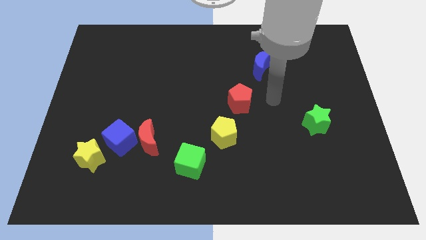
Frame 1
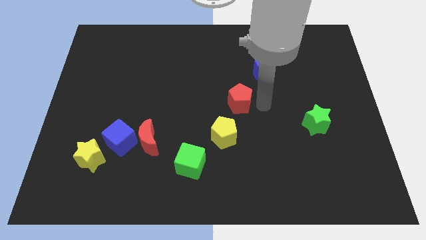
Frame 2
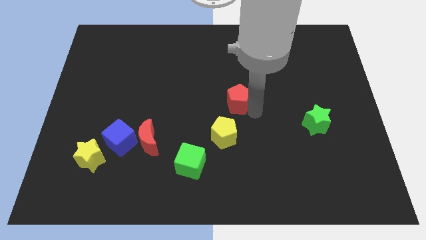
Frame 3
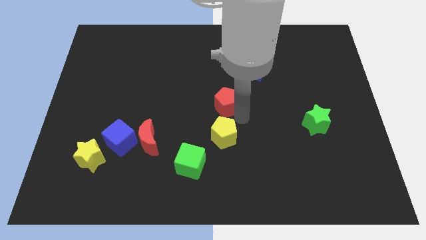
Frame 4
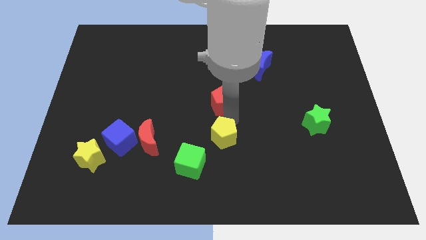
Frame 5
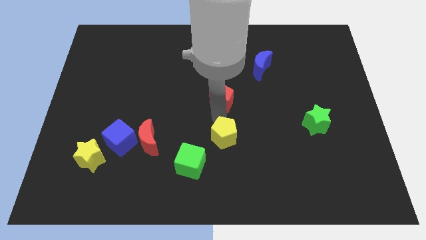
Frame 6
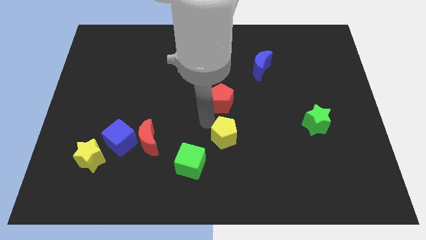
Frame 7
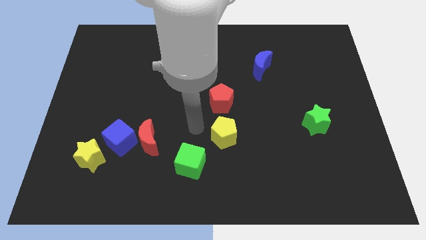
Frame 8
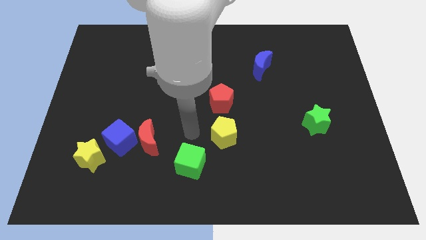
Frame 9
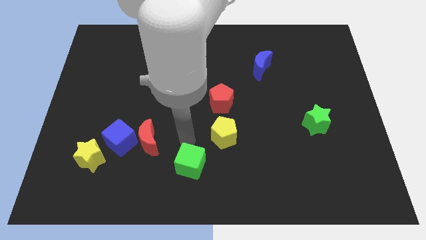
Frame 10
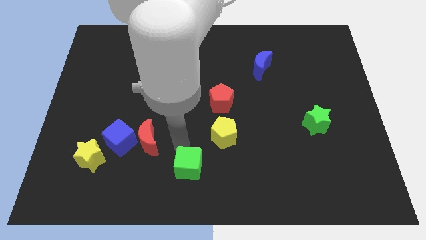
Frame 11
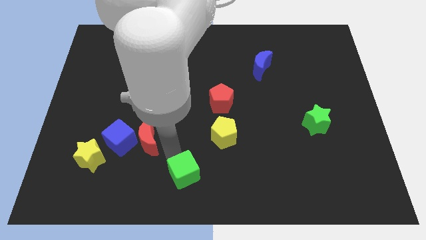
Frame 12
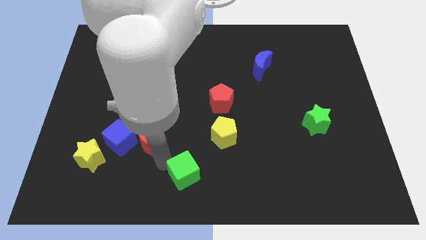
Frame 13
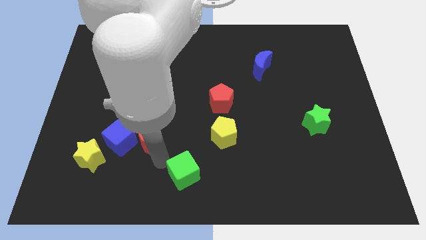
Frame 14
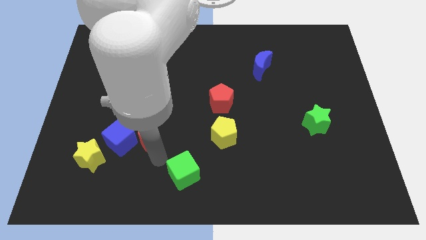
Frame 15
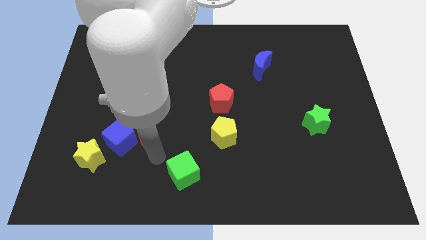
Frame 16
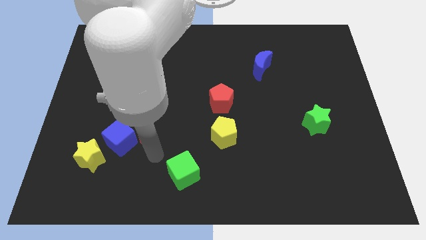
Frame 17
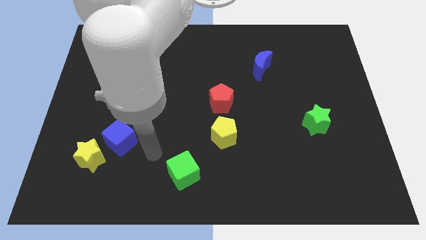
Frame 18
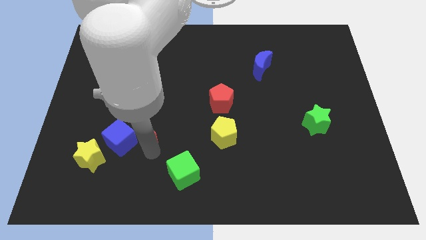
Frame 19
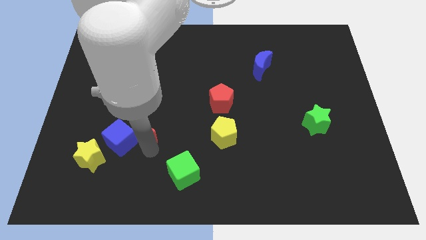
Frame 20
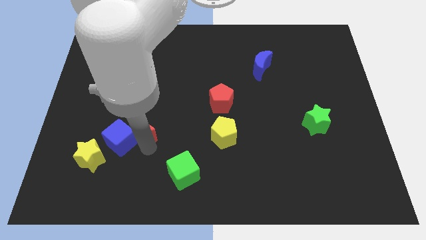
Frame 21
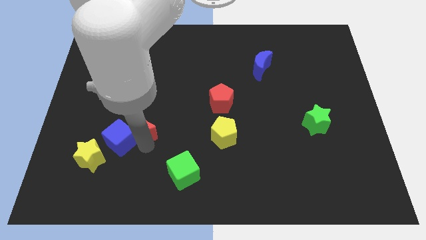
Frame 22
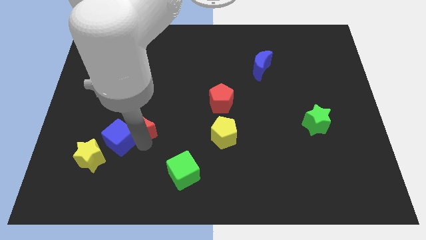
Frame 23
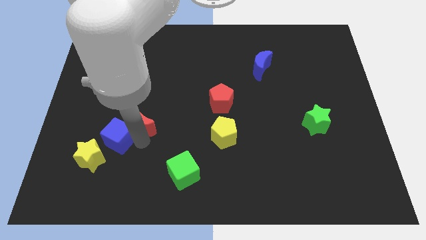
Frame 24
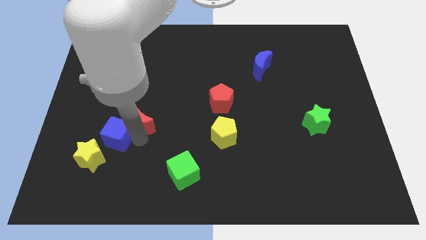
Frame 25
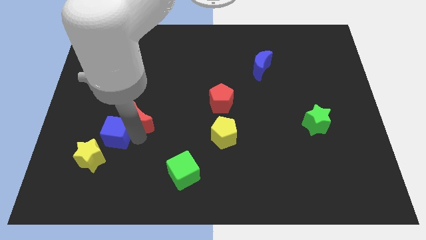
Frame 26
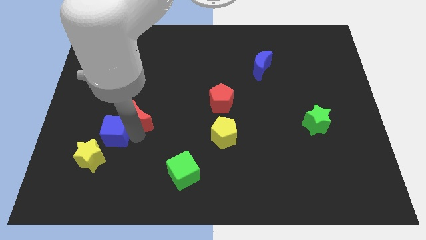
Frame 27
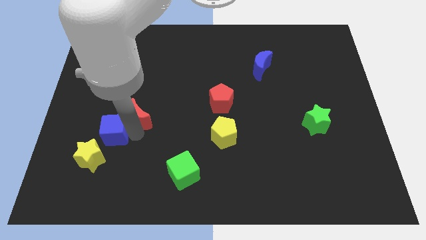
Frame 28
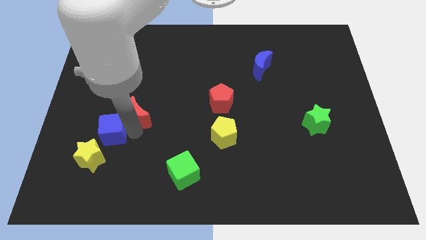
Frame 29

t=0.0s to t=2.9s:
slightly move the red moon up and to the left diagonally

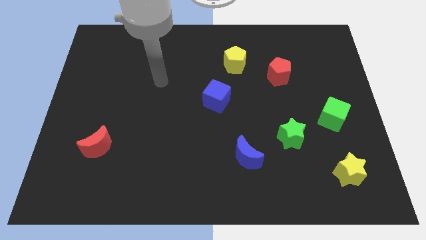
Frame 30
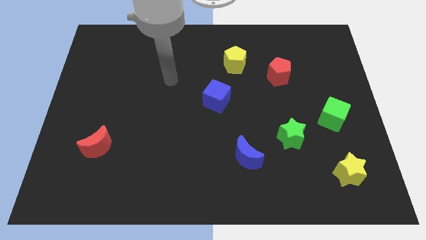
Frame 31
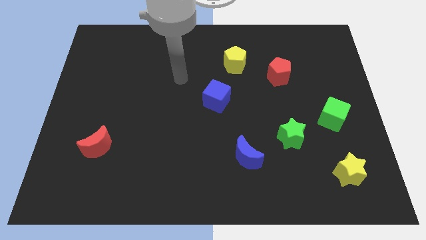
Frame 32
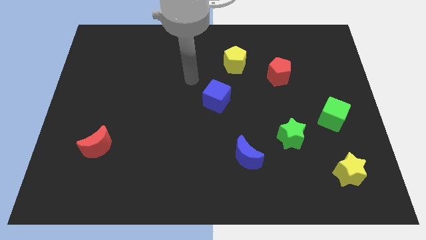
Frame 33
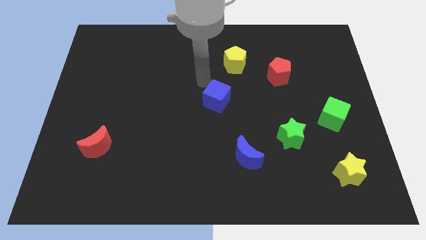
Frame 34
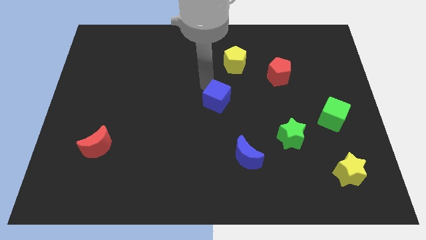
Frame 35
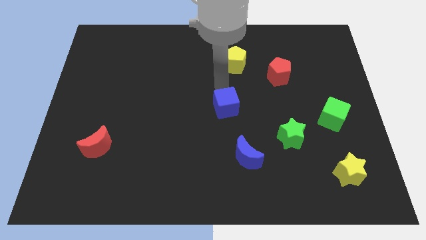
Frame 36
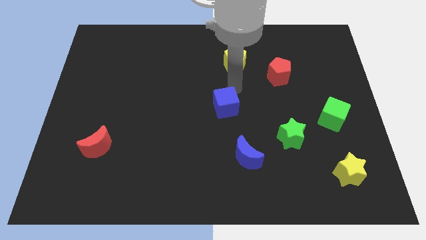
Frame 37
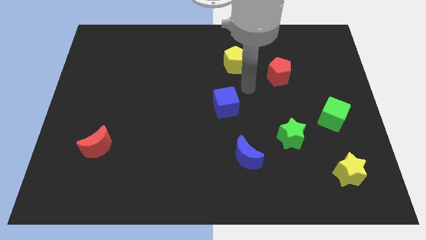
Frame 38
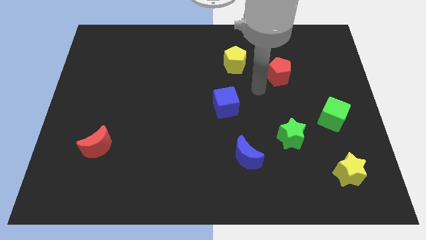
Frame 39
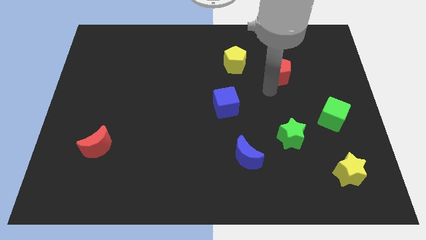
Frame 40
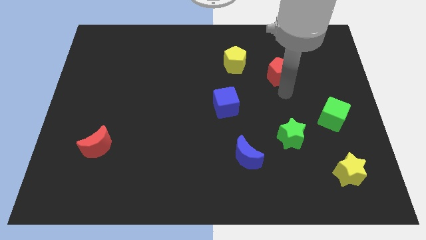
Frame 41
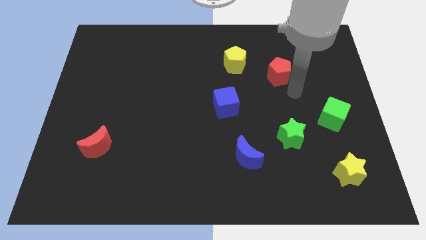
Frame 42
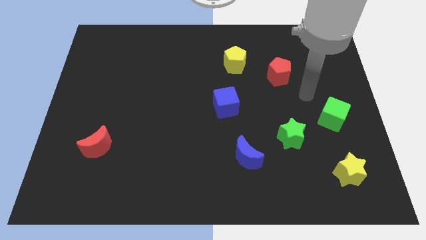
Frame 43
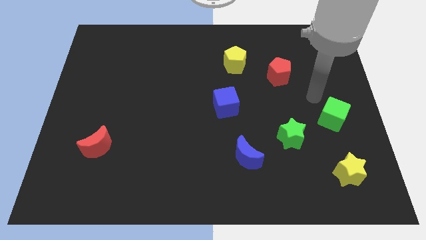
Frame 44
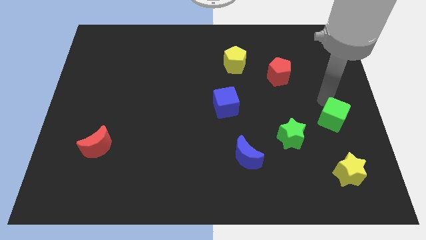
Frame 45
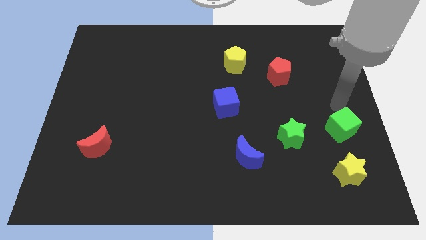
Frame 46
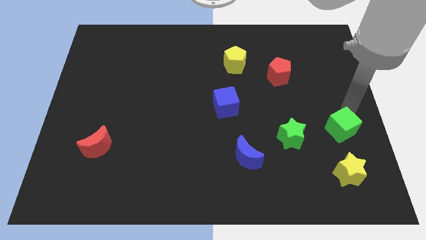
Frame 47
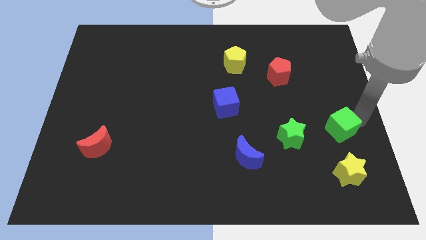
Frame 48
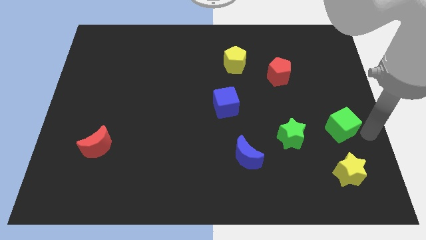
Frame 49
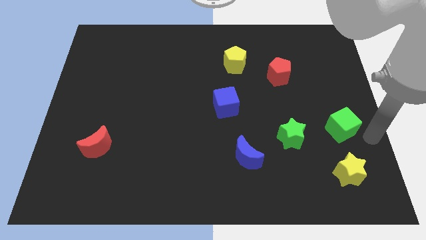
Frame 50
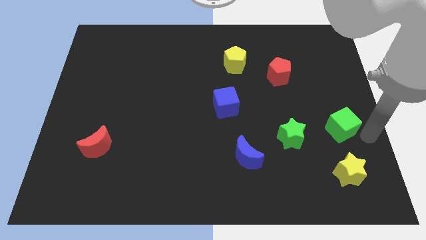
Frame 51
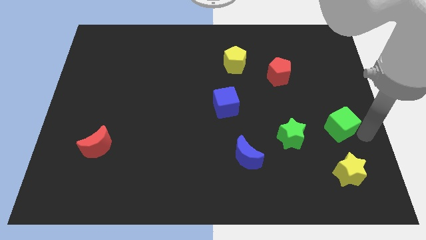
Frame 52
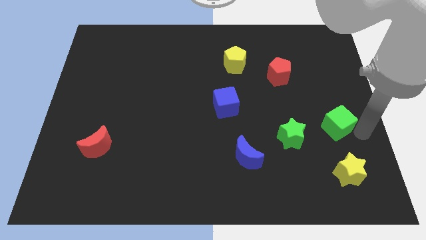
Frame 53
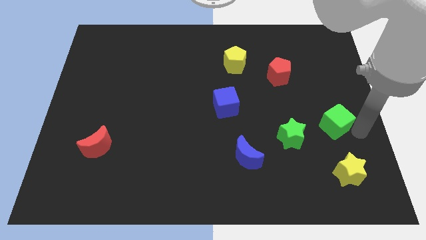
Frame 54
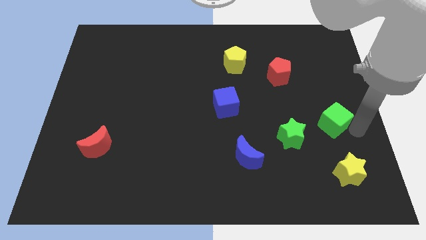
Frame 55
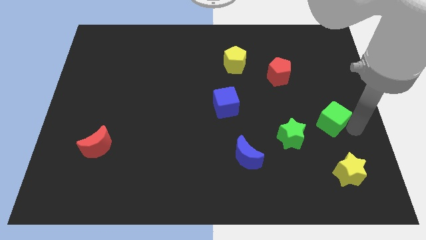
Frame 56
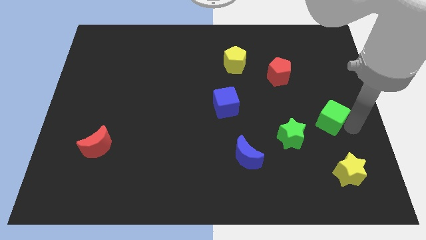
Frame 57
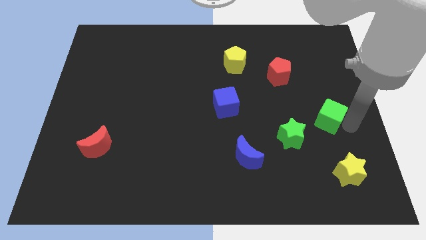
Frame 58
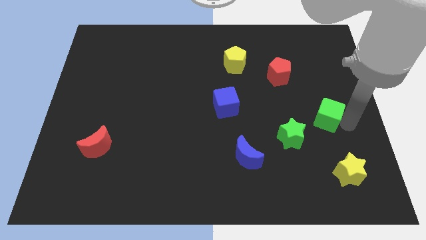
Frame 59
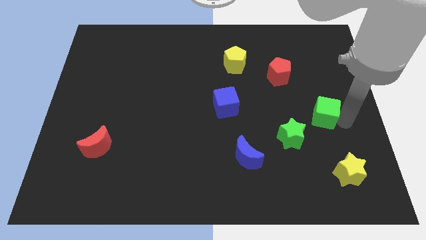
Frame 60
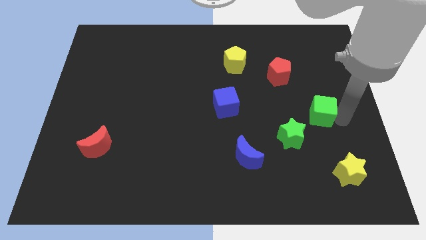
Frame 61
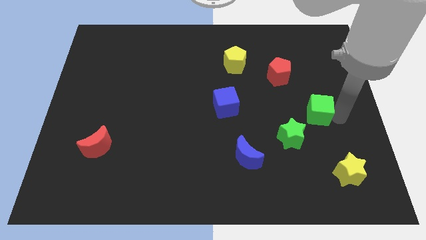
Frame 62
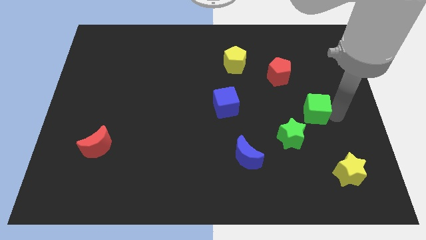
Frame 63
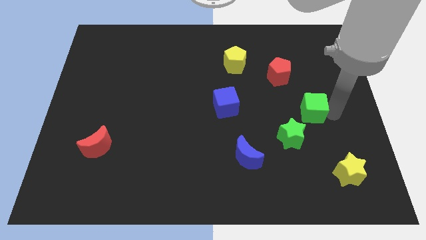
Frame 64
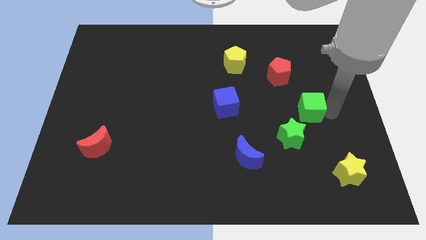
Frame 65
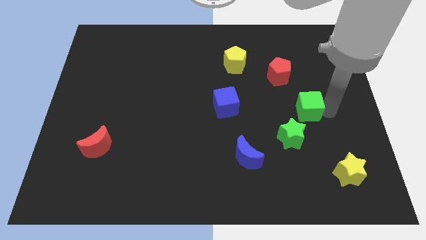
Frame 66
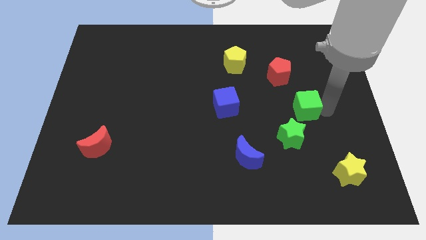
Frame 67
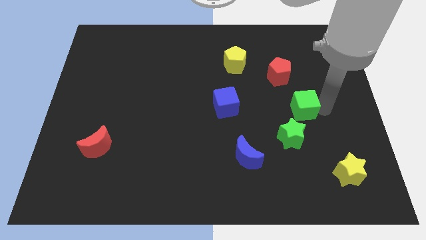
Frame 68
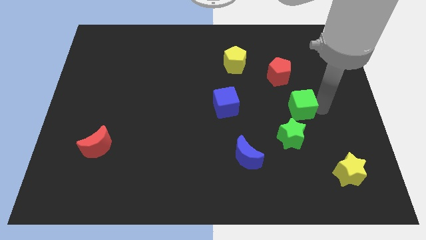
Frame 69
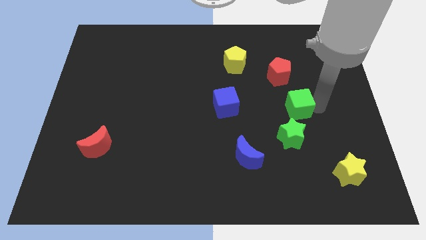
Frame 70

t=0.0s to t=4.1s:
move the green cube left a bit

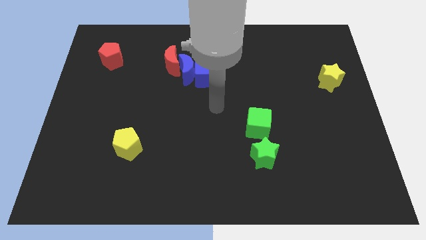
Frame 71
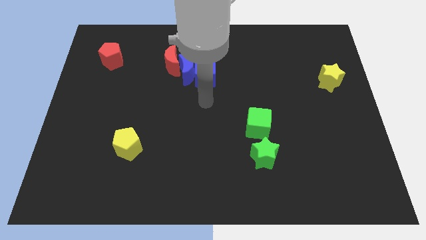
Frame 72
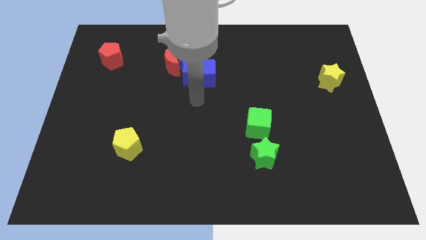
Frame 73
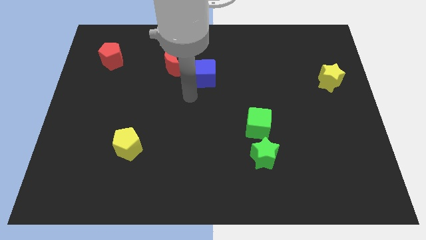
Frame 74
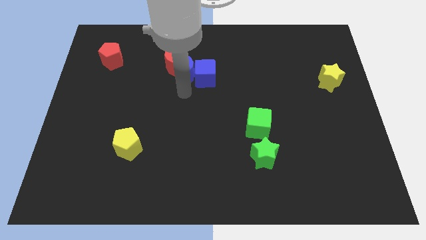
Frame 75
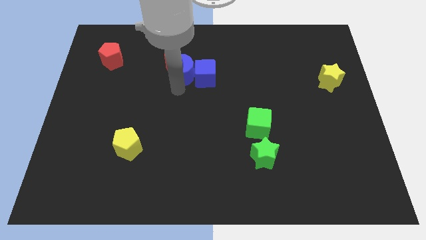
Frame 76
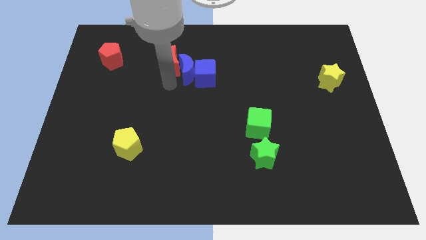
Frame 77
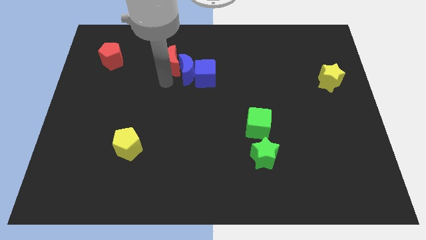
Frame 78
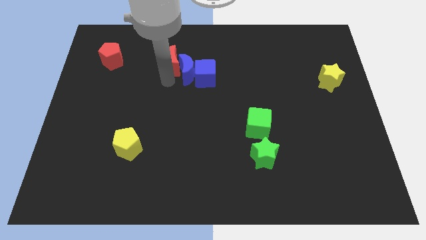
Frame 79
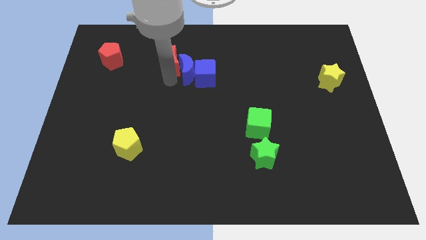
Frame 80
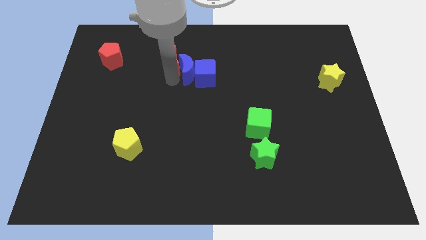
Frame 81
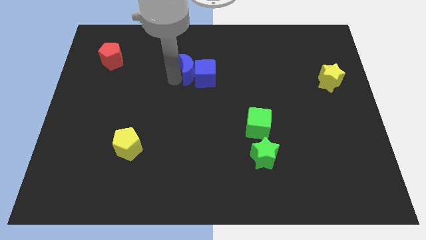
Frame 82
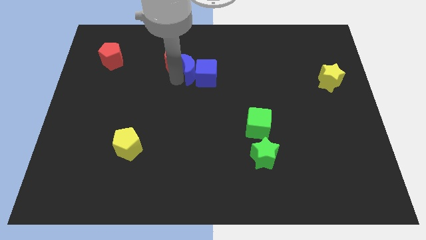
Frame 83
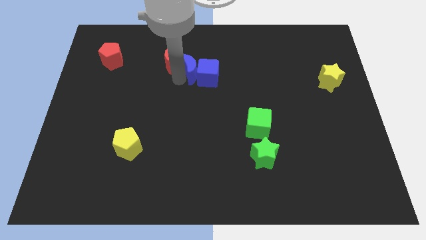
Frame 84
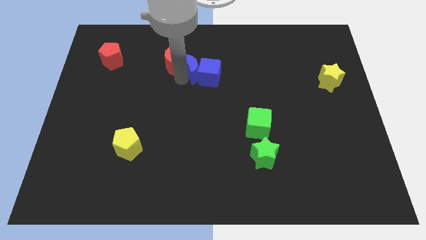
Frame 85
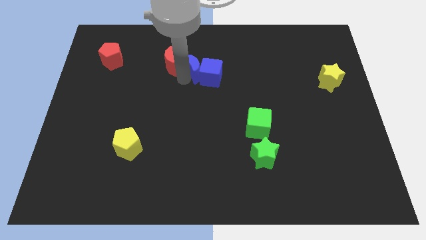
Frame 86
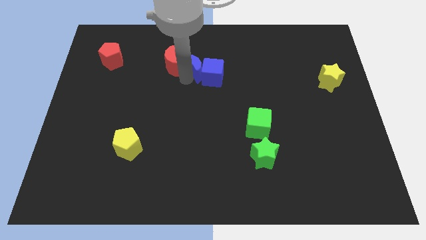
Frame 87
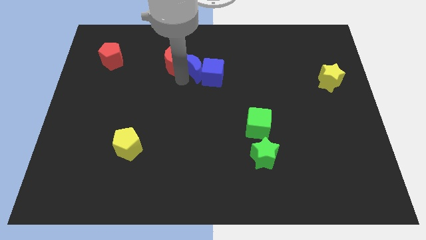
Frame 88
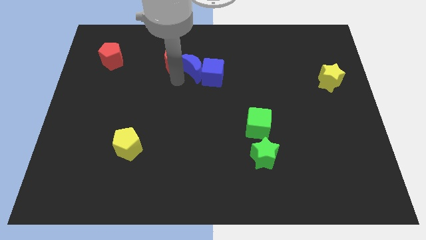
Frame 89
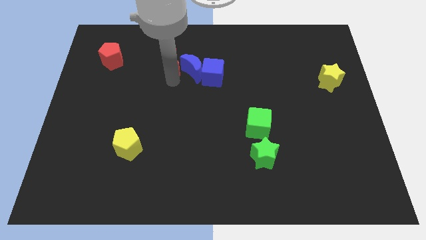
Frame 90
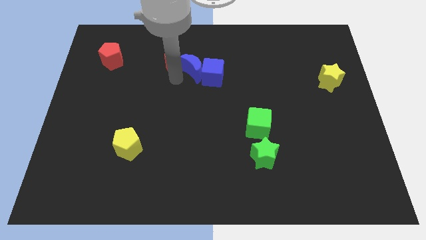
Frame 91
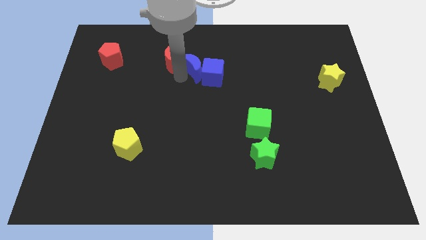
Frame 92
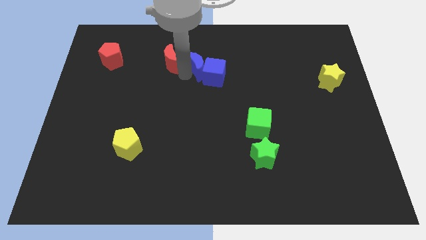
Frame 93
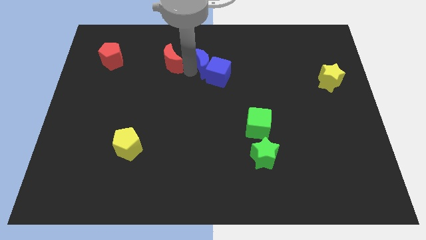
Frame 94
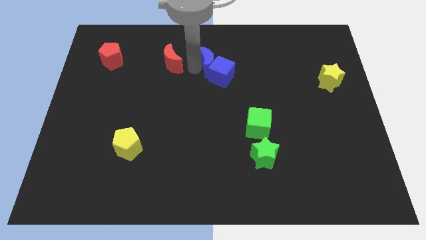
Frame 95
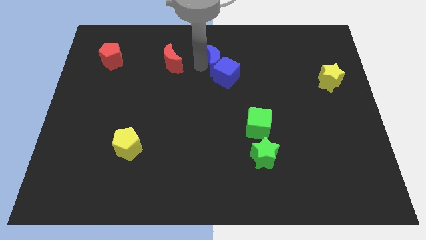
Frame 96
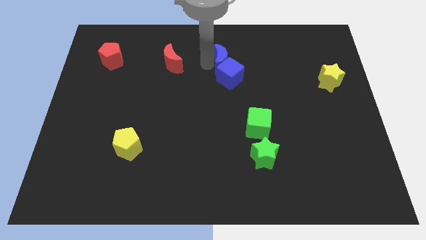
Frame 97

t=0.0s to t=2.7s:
slightly move the blue moon to the right
